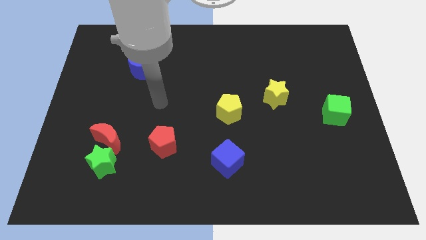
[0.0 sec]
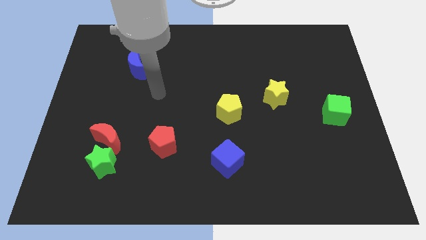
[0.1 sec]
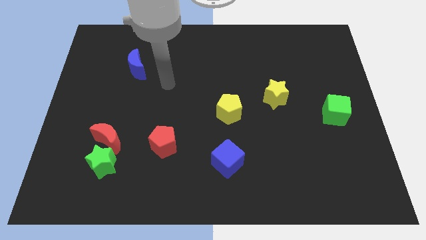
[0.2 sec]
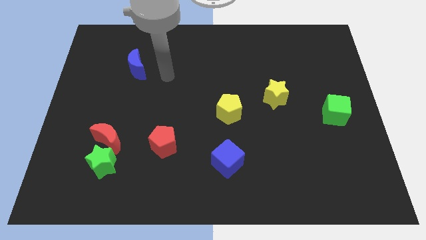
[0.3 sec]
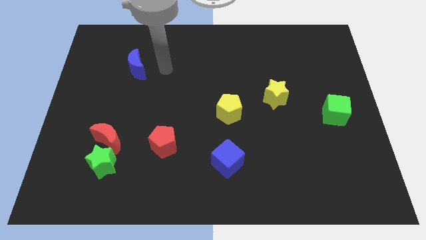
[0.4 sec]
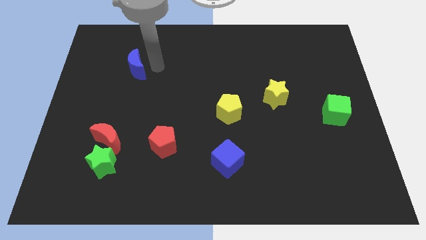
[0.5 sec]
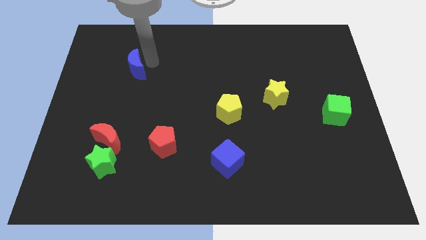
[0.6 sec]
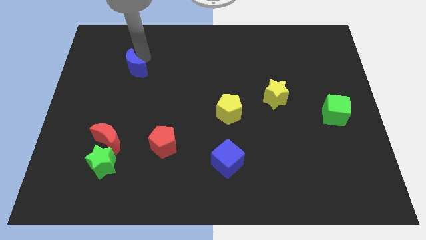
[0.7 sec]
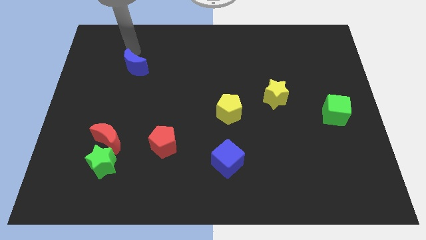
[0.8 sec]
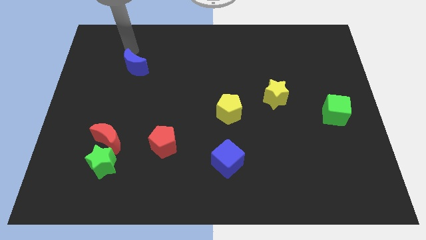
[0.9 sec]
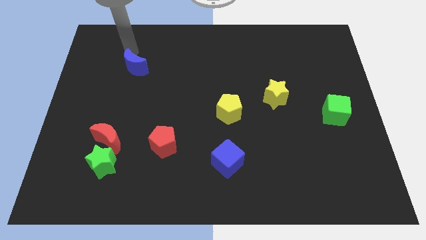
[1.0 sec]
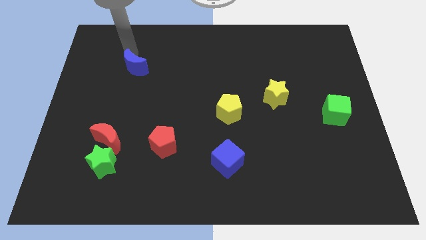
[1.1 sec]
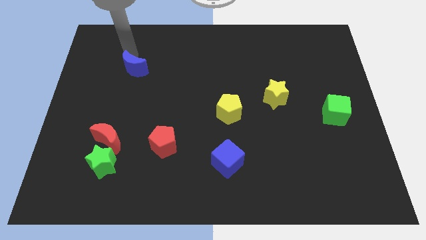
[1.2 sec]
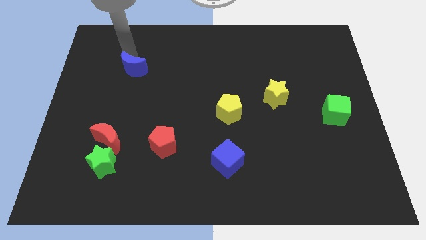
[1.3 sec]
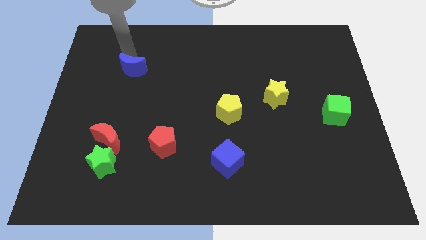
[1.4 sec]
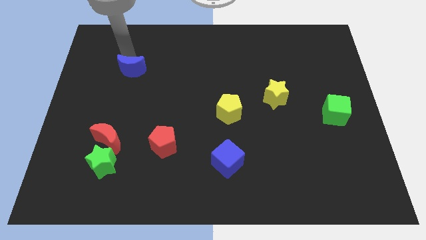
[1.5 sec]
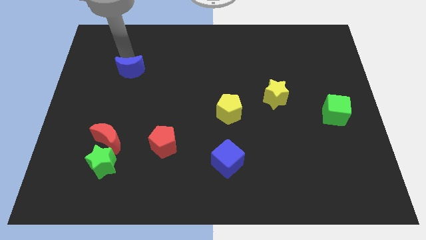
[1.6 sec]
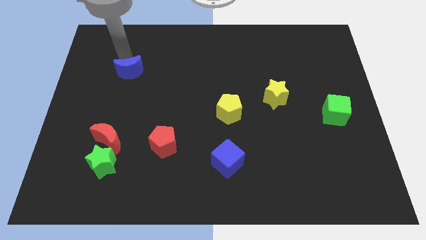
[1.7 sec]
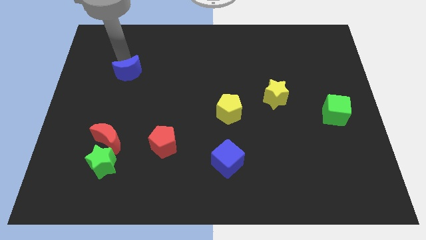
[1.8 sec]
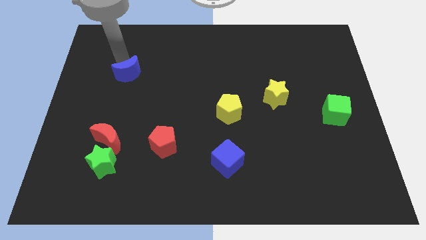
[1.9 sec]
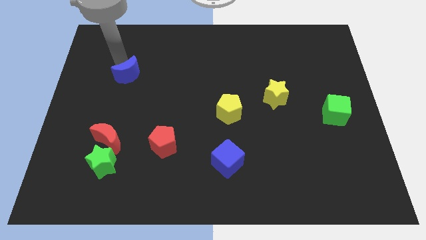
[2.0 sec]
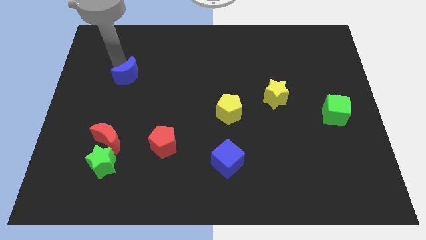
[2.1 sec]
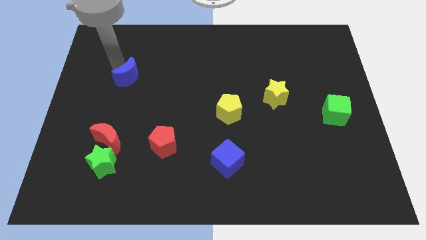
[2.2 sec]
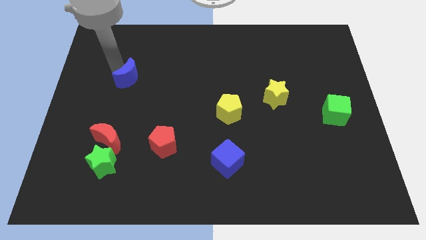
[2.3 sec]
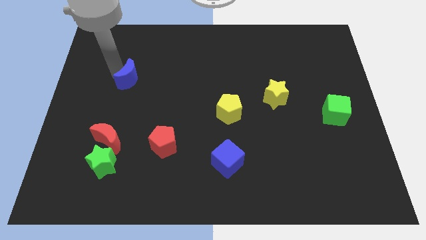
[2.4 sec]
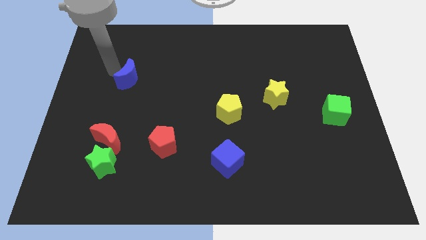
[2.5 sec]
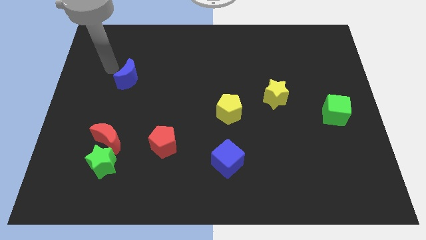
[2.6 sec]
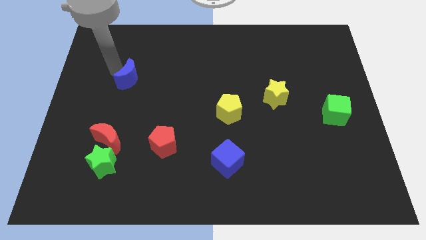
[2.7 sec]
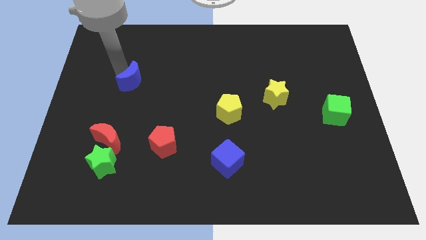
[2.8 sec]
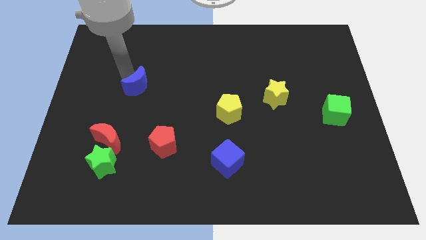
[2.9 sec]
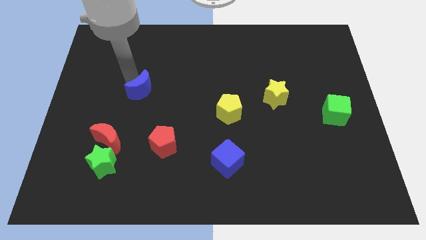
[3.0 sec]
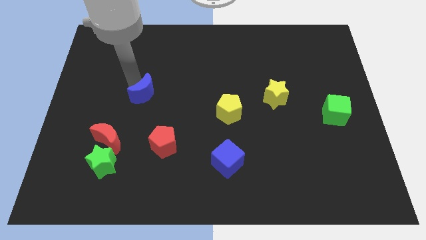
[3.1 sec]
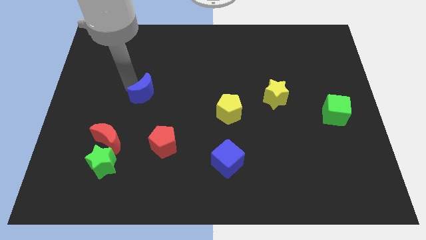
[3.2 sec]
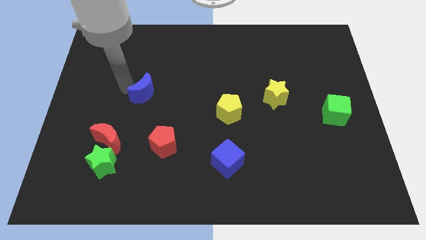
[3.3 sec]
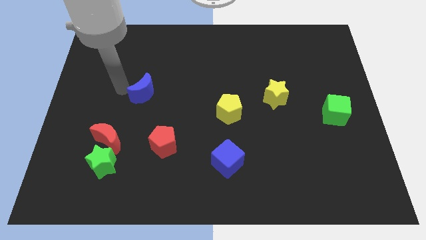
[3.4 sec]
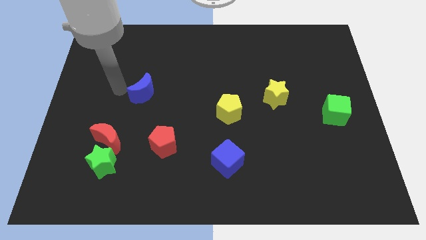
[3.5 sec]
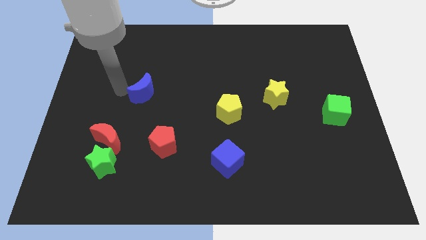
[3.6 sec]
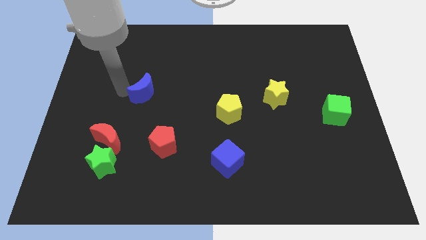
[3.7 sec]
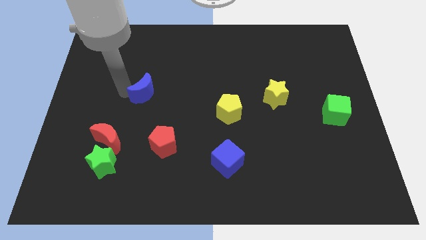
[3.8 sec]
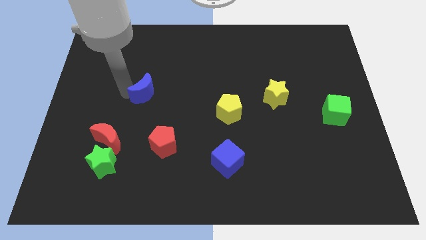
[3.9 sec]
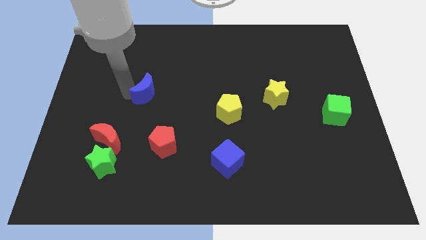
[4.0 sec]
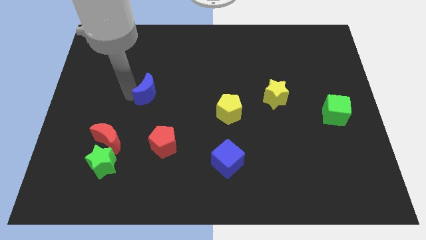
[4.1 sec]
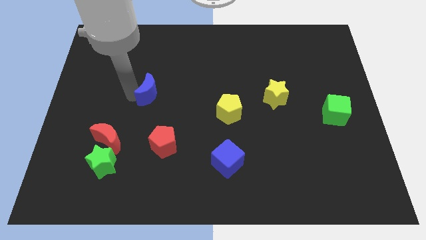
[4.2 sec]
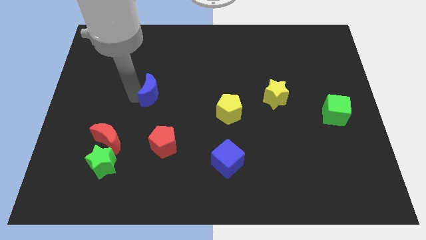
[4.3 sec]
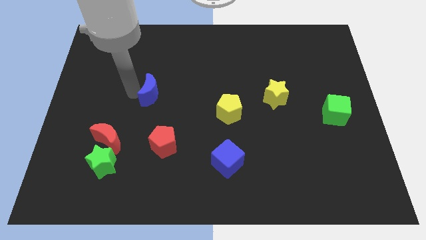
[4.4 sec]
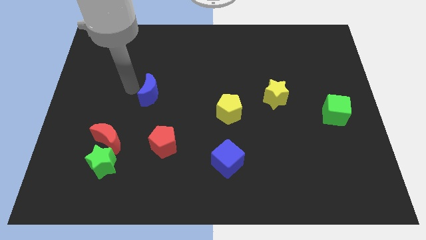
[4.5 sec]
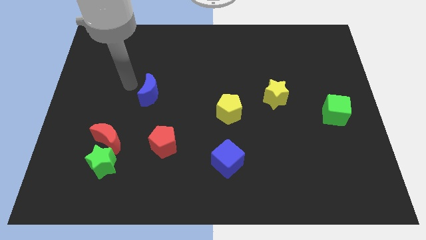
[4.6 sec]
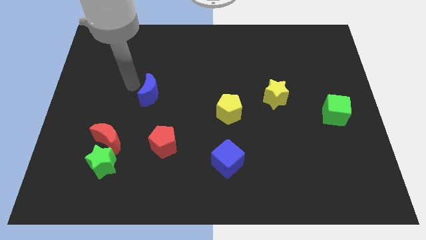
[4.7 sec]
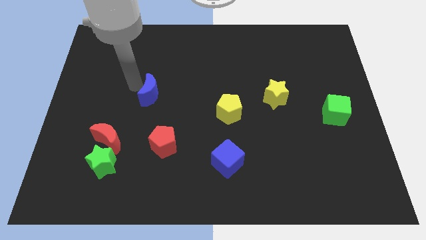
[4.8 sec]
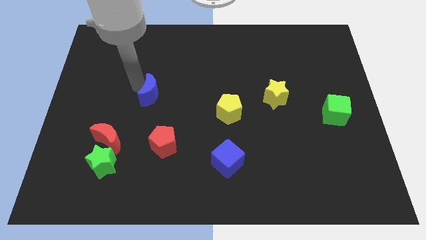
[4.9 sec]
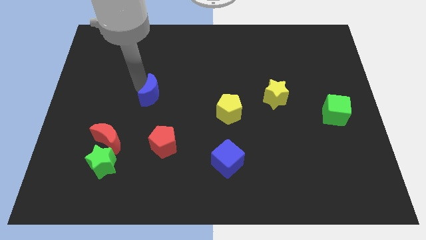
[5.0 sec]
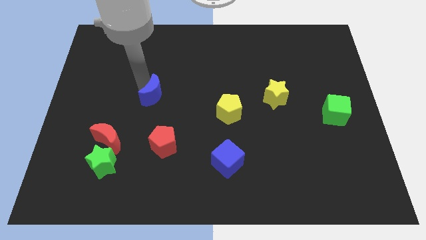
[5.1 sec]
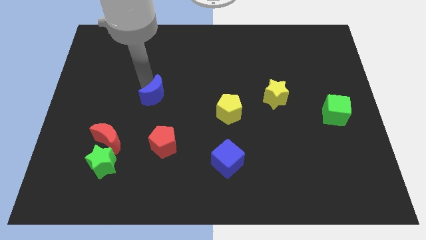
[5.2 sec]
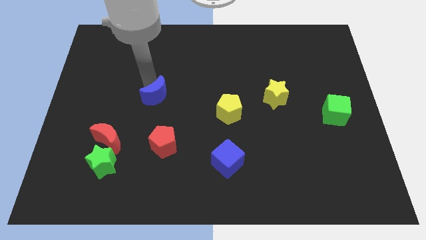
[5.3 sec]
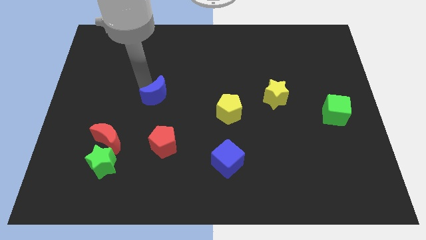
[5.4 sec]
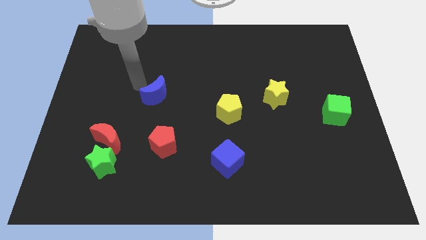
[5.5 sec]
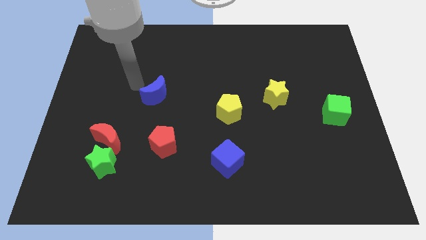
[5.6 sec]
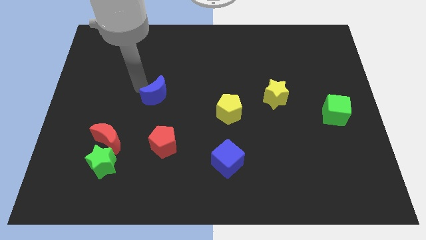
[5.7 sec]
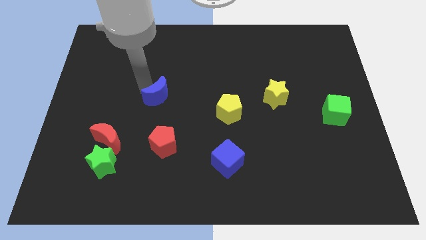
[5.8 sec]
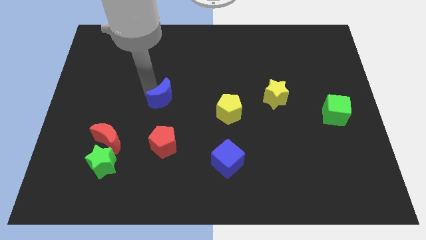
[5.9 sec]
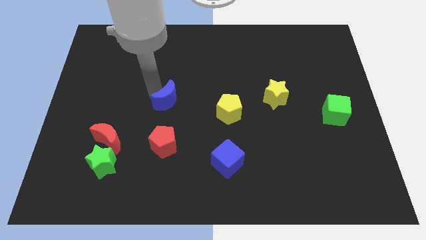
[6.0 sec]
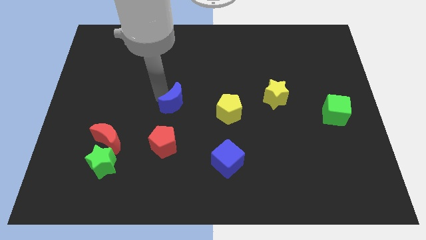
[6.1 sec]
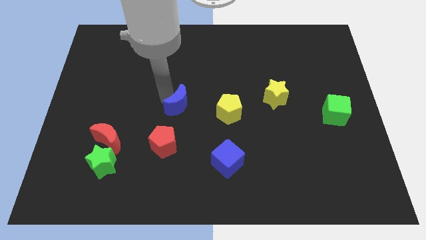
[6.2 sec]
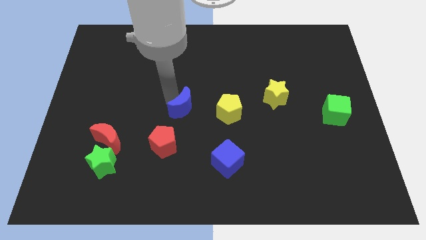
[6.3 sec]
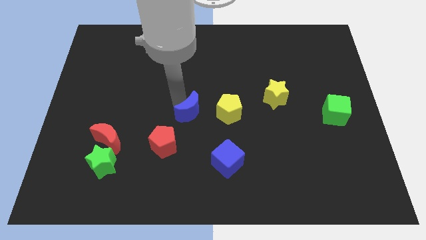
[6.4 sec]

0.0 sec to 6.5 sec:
move the blue moon down and right diagonally

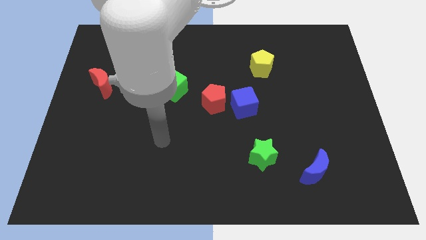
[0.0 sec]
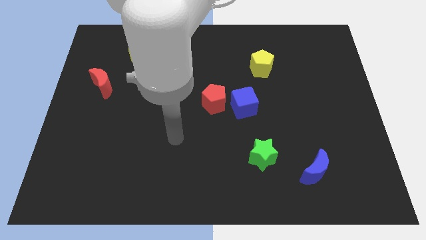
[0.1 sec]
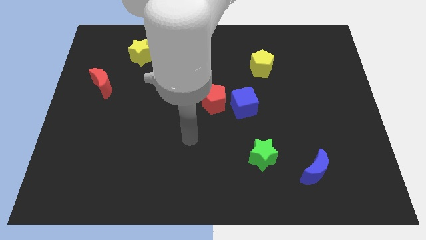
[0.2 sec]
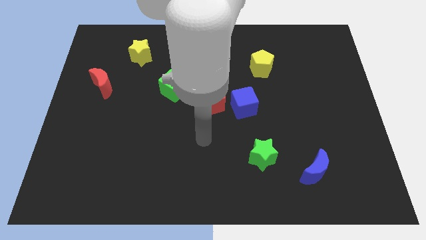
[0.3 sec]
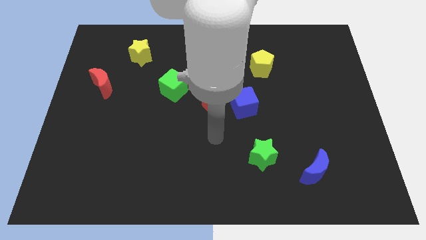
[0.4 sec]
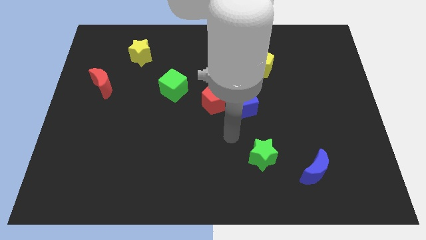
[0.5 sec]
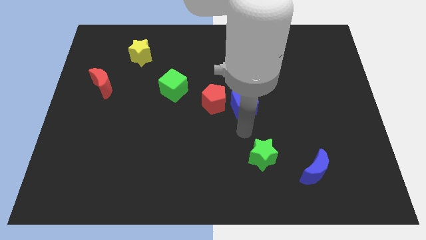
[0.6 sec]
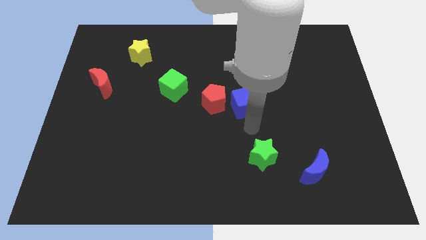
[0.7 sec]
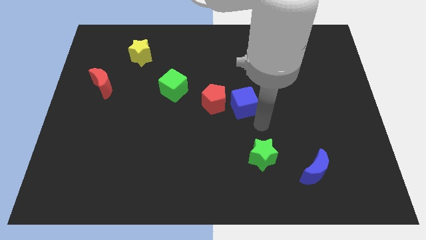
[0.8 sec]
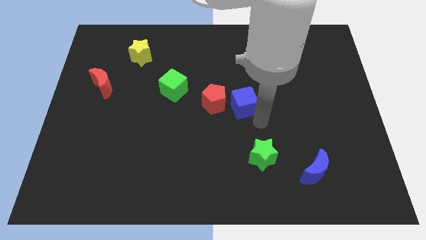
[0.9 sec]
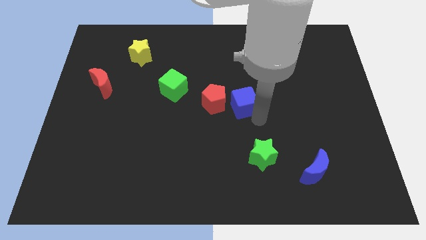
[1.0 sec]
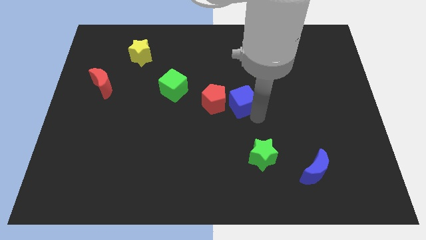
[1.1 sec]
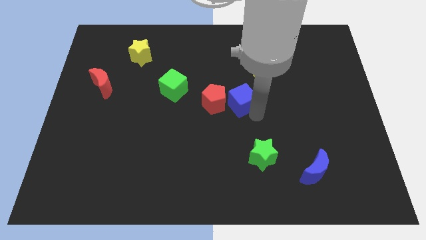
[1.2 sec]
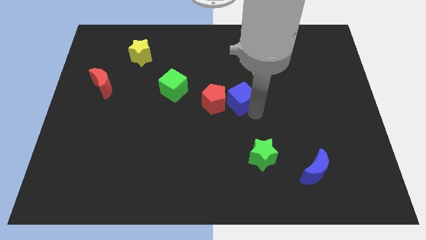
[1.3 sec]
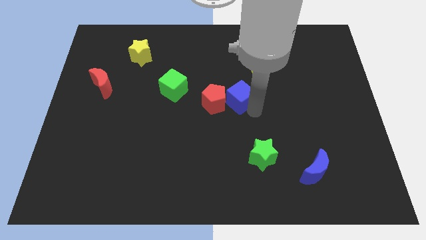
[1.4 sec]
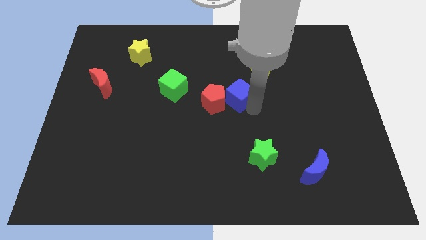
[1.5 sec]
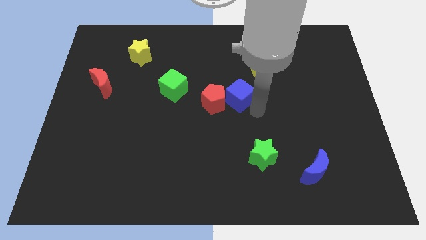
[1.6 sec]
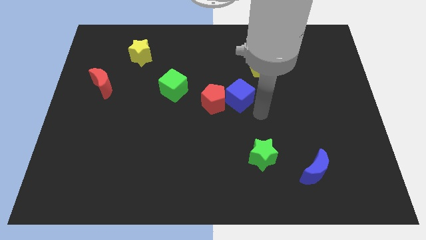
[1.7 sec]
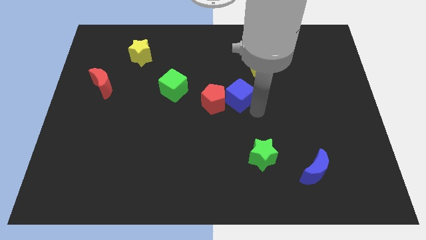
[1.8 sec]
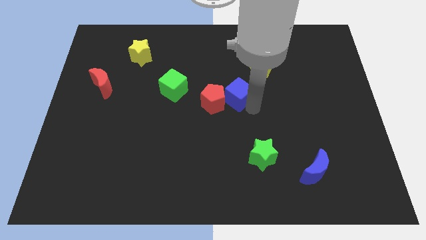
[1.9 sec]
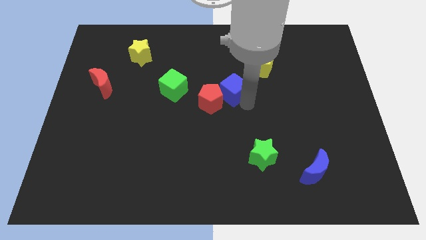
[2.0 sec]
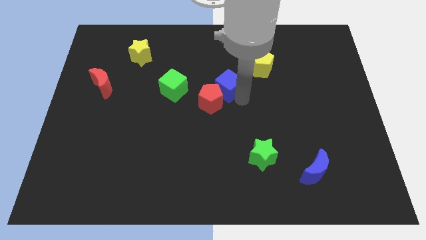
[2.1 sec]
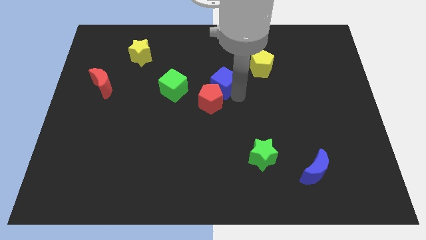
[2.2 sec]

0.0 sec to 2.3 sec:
slightly slide the blue cube upwards and then left
